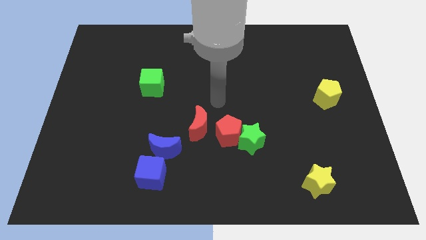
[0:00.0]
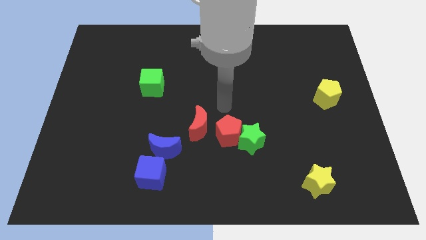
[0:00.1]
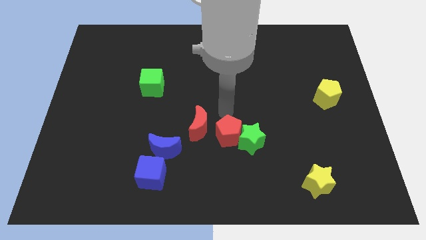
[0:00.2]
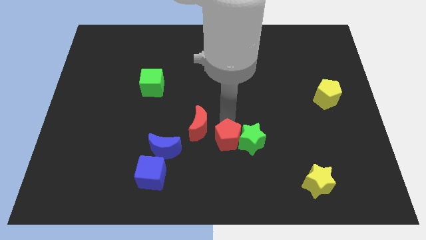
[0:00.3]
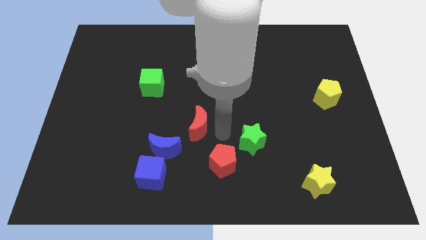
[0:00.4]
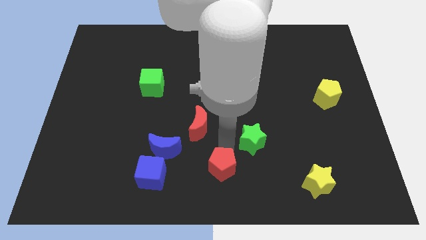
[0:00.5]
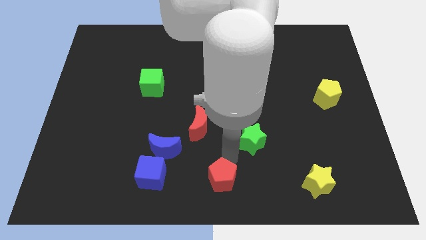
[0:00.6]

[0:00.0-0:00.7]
pull the green star apart from the red pentagon

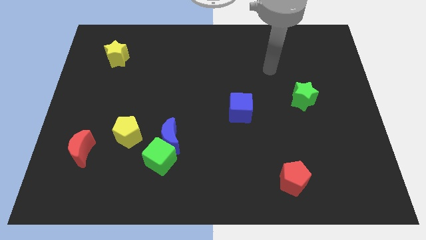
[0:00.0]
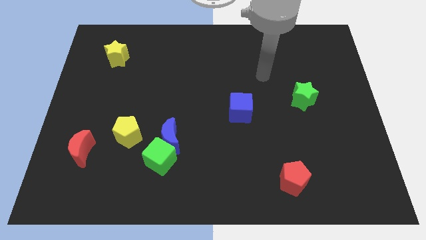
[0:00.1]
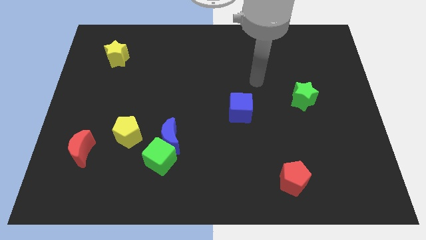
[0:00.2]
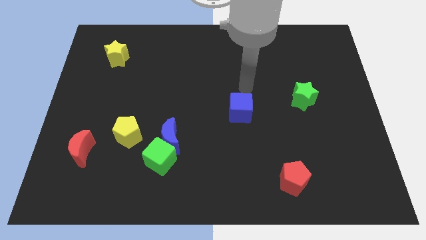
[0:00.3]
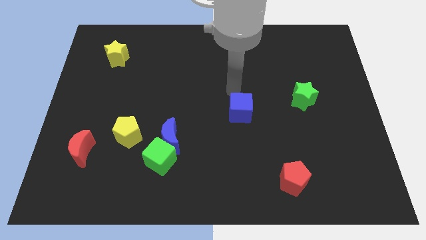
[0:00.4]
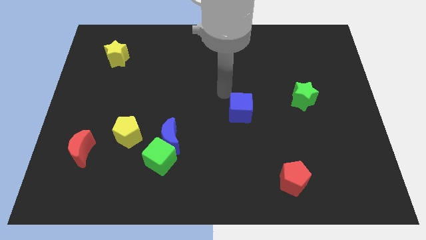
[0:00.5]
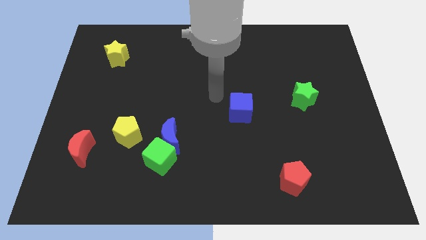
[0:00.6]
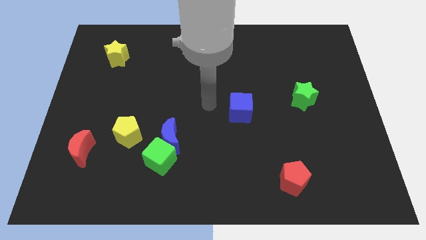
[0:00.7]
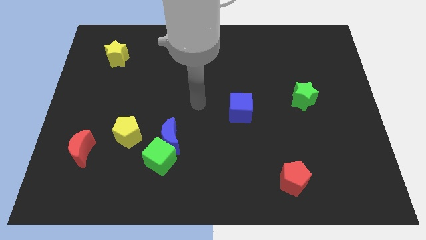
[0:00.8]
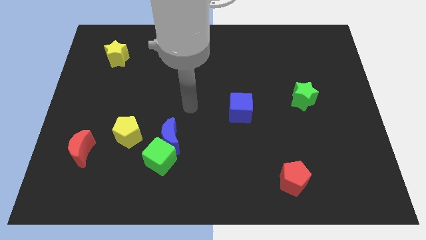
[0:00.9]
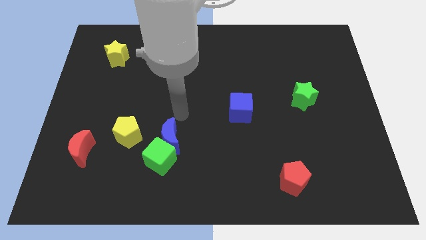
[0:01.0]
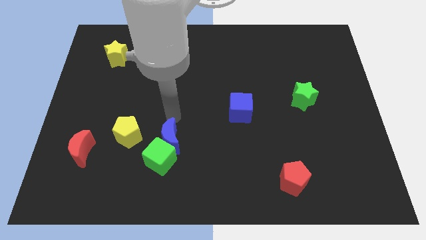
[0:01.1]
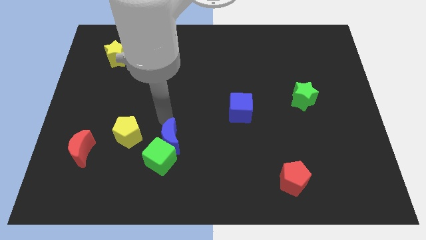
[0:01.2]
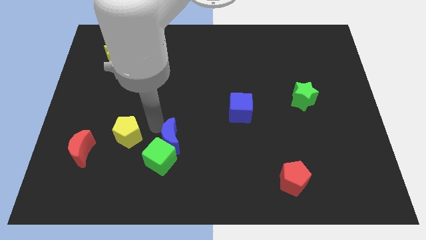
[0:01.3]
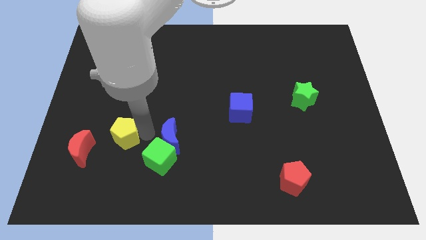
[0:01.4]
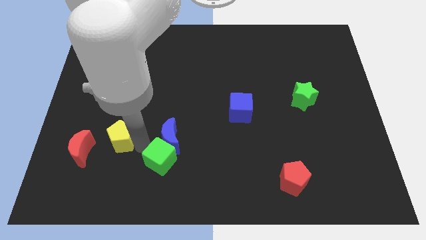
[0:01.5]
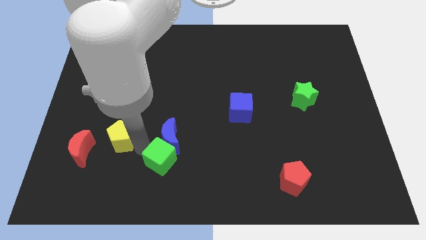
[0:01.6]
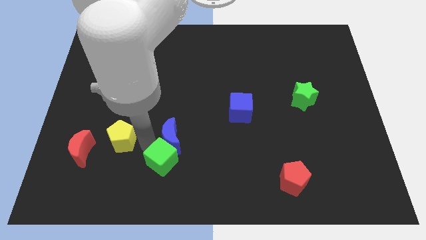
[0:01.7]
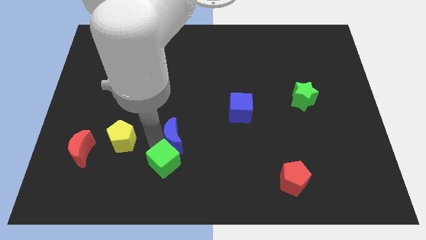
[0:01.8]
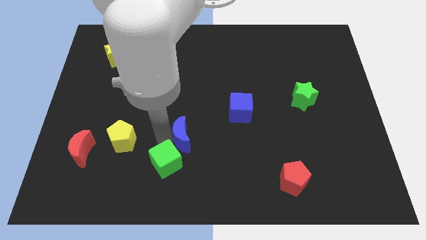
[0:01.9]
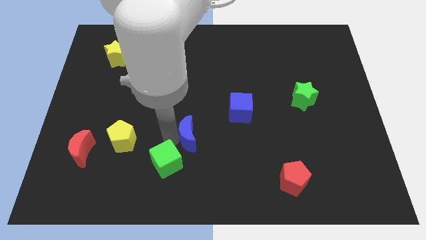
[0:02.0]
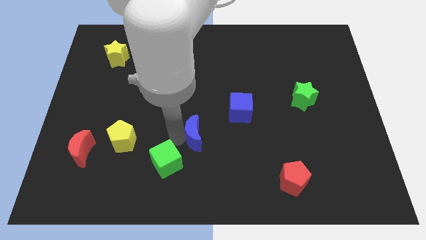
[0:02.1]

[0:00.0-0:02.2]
separate the blue moon from the green cube and yellow pentagon

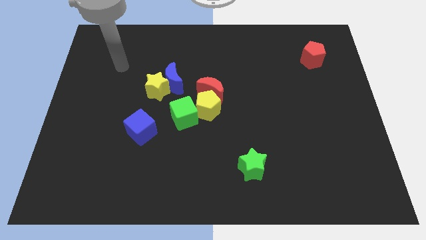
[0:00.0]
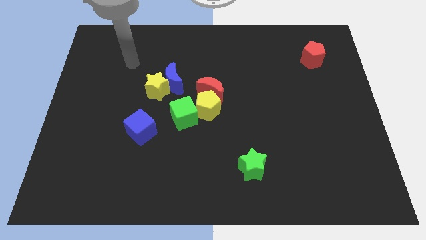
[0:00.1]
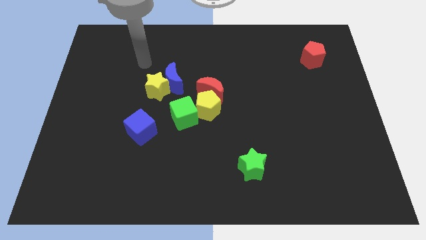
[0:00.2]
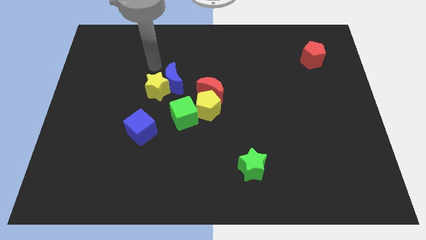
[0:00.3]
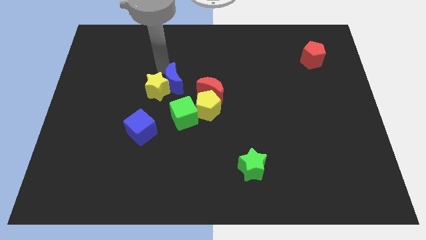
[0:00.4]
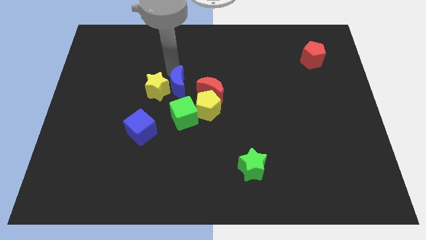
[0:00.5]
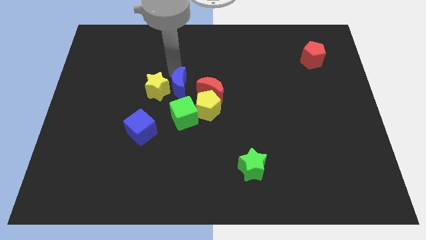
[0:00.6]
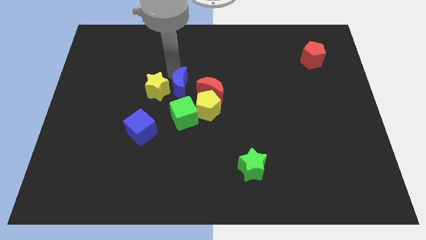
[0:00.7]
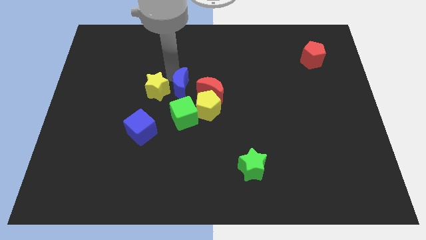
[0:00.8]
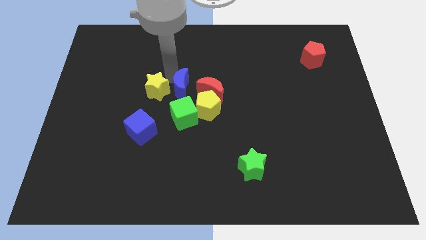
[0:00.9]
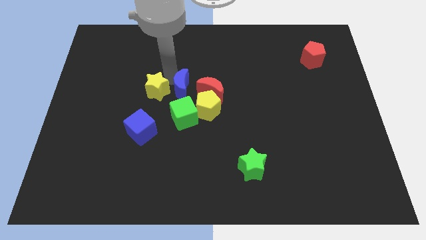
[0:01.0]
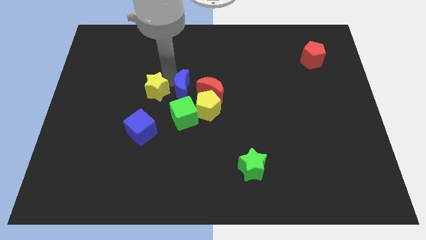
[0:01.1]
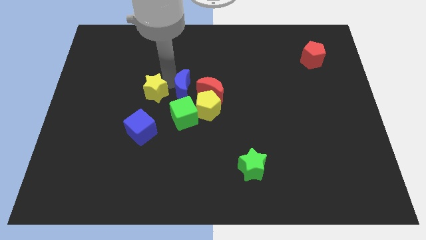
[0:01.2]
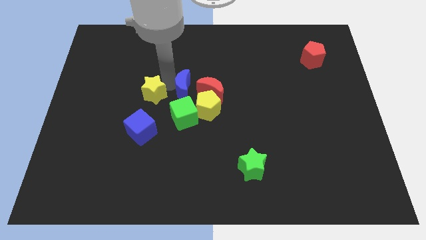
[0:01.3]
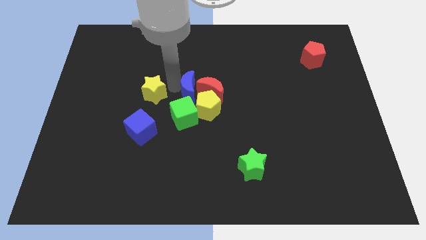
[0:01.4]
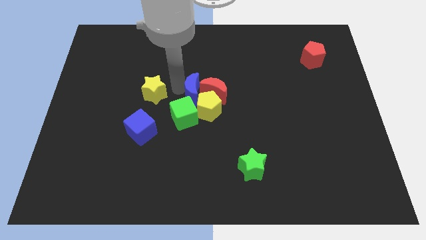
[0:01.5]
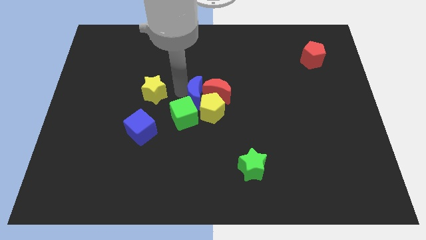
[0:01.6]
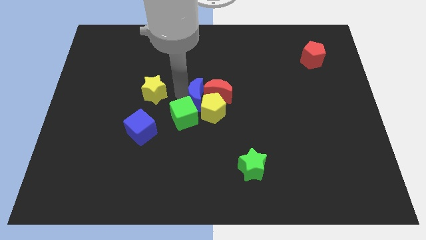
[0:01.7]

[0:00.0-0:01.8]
move the yellow star away from the blue moon

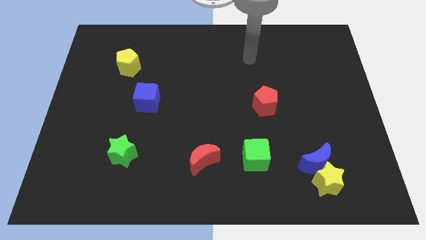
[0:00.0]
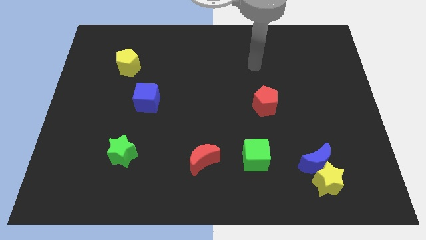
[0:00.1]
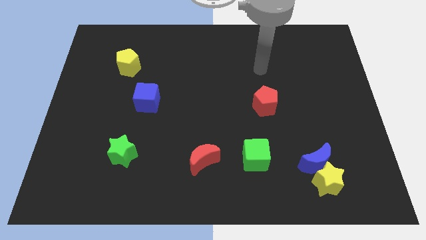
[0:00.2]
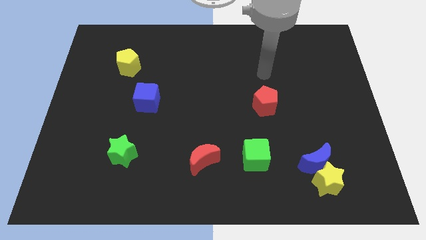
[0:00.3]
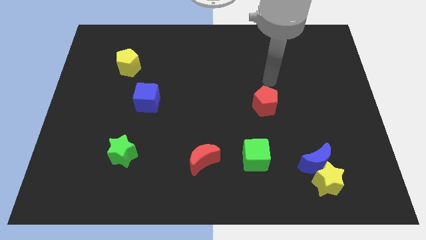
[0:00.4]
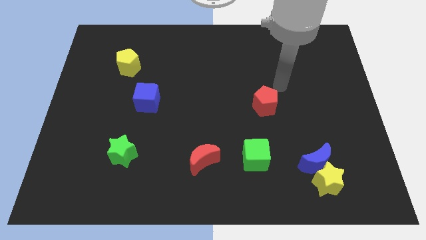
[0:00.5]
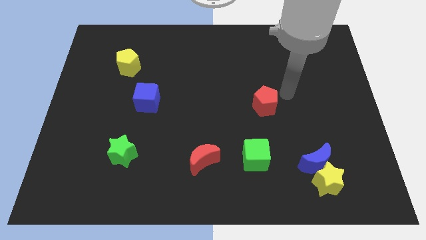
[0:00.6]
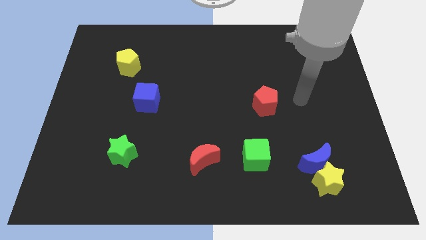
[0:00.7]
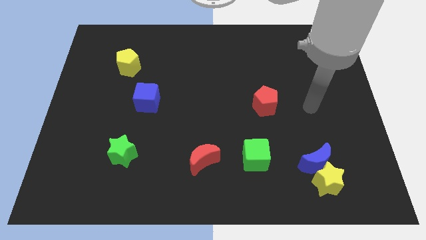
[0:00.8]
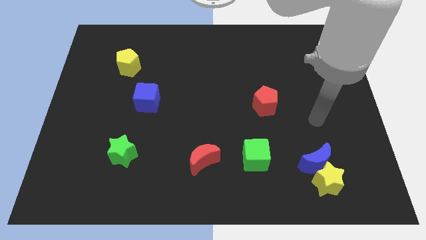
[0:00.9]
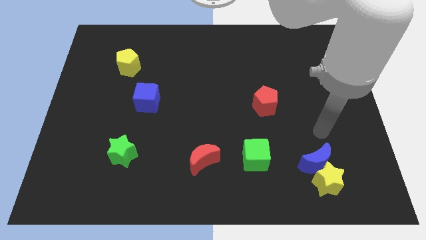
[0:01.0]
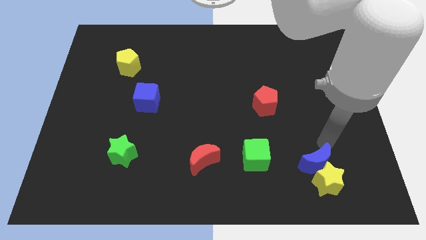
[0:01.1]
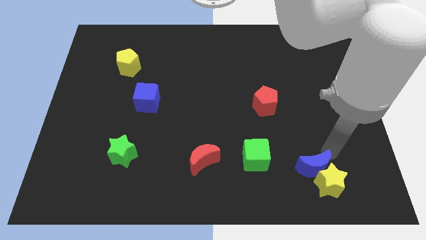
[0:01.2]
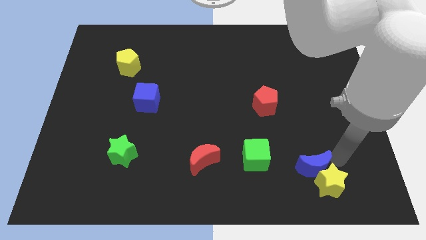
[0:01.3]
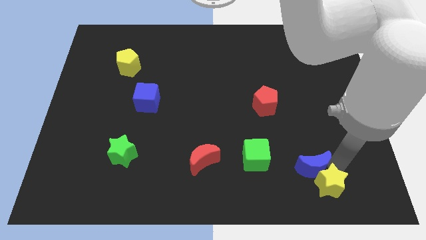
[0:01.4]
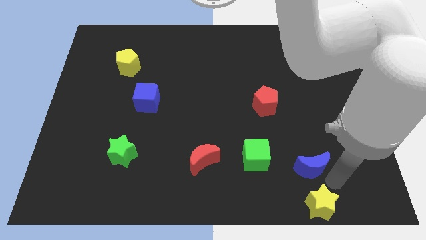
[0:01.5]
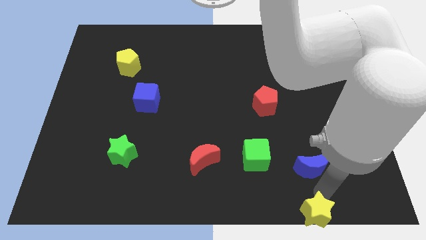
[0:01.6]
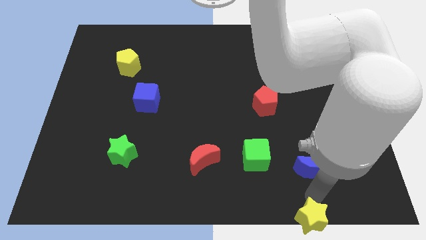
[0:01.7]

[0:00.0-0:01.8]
separate the blue moon from the yellow star

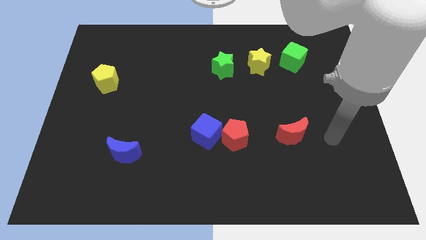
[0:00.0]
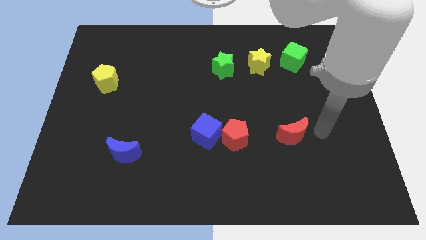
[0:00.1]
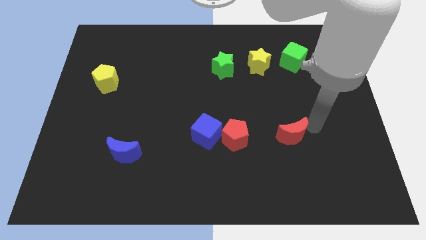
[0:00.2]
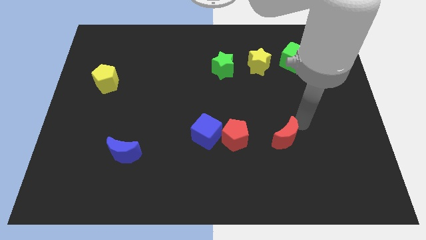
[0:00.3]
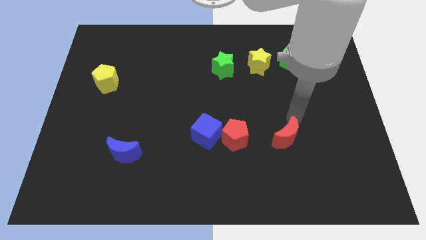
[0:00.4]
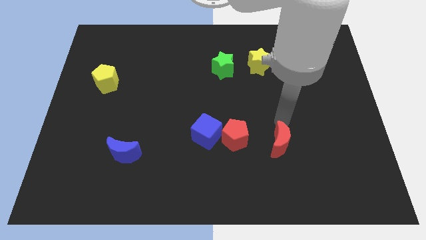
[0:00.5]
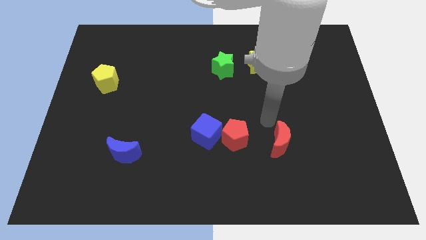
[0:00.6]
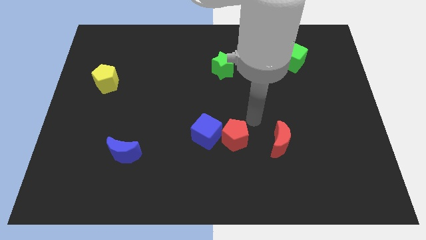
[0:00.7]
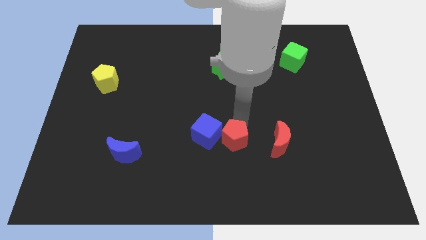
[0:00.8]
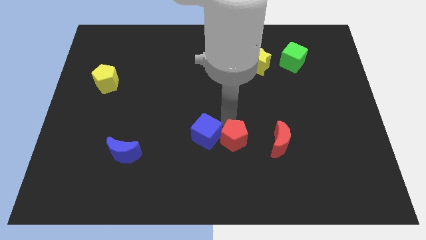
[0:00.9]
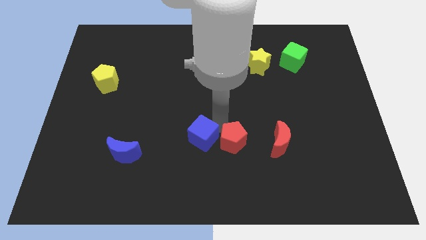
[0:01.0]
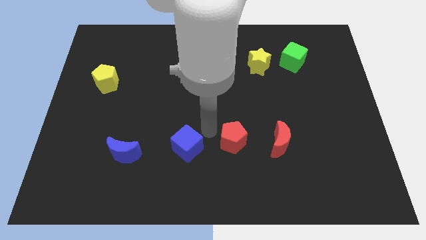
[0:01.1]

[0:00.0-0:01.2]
separate the red pentagon from the blue cube

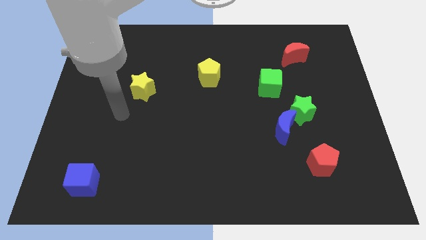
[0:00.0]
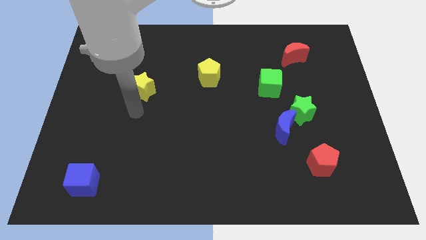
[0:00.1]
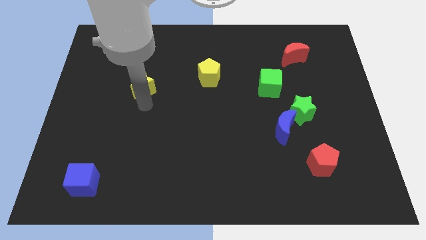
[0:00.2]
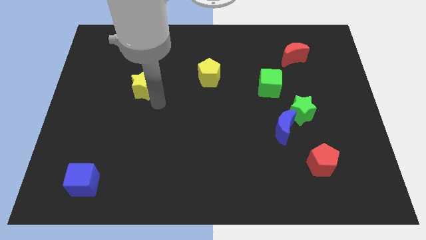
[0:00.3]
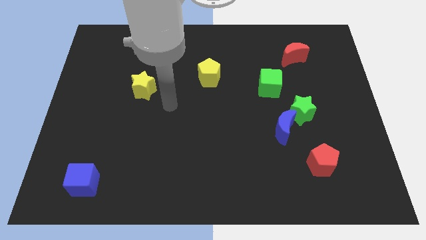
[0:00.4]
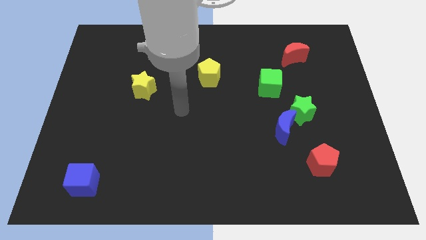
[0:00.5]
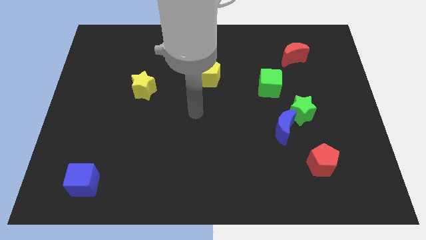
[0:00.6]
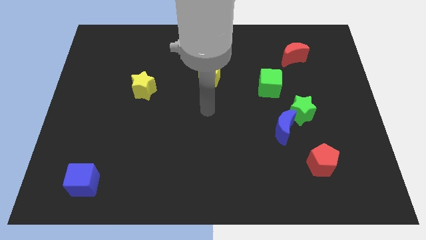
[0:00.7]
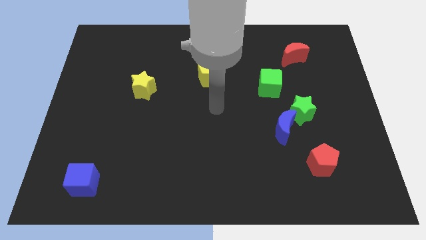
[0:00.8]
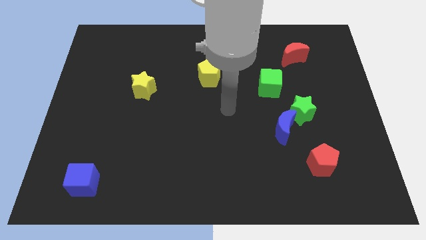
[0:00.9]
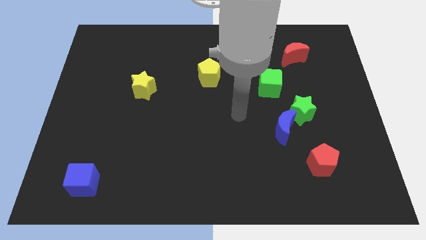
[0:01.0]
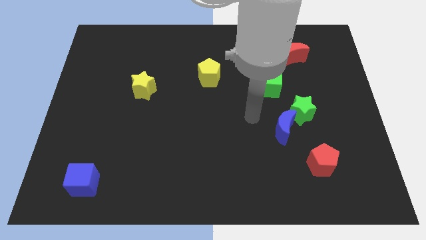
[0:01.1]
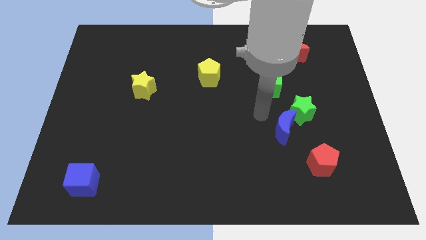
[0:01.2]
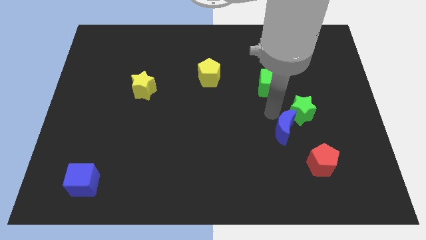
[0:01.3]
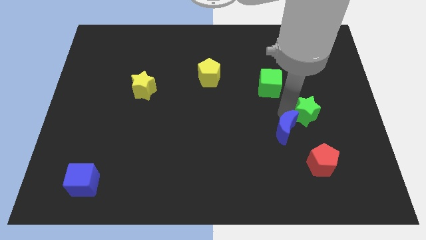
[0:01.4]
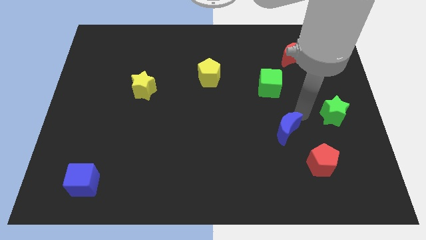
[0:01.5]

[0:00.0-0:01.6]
pull the blue moon apart from the green star

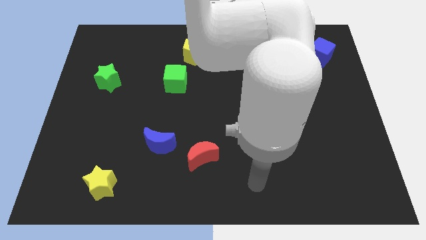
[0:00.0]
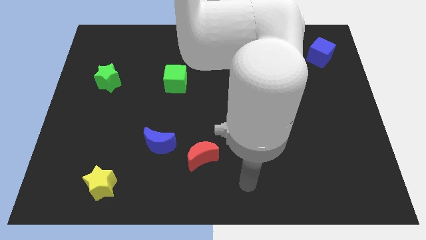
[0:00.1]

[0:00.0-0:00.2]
move the red moon away from the blue moon
